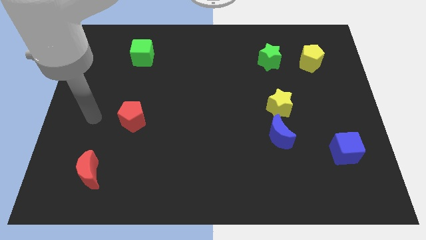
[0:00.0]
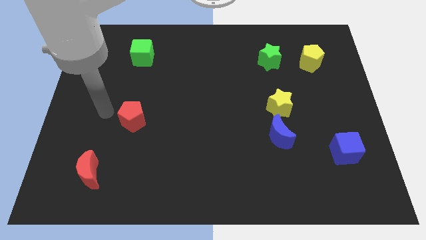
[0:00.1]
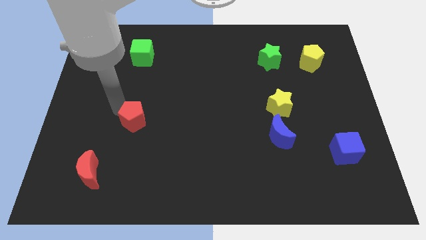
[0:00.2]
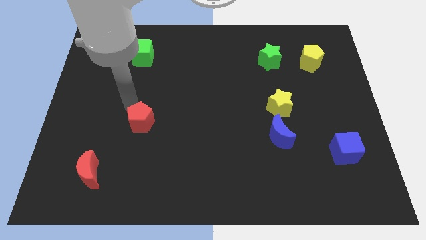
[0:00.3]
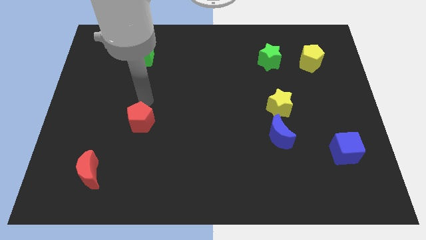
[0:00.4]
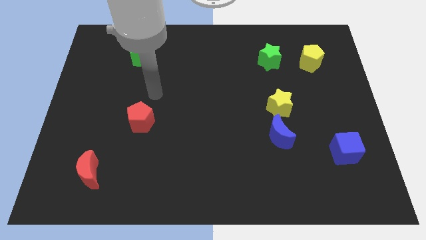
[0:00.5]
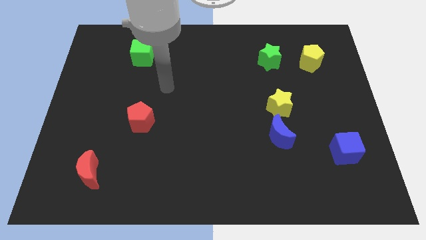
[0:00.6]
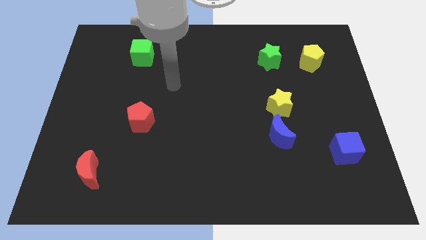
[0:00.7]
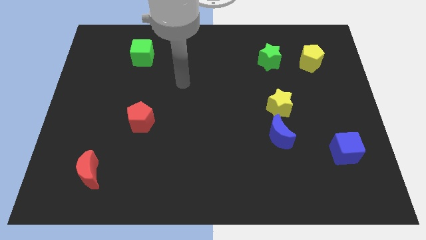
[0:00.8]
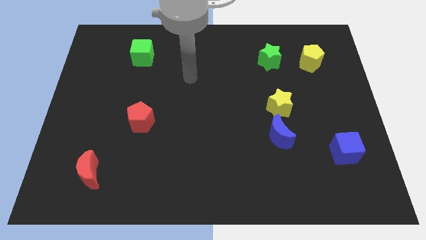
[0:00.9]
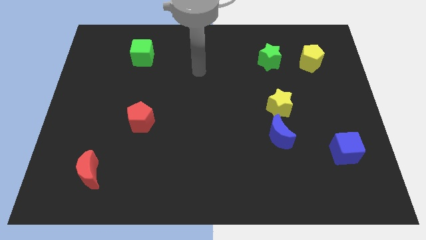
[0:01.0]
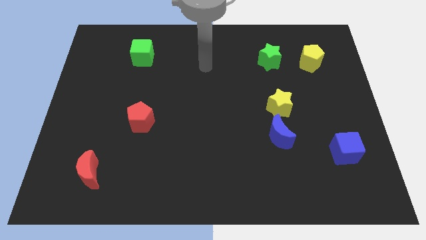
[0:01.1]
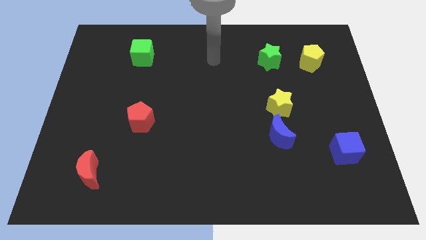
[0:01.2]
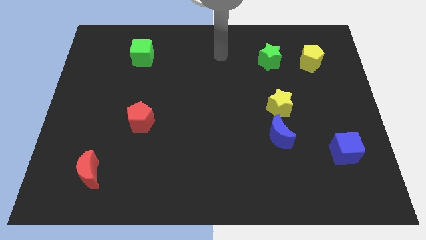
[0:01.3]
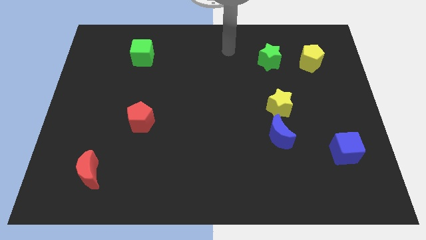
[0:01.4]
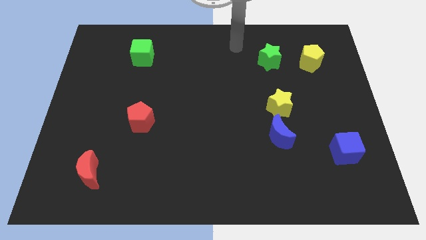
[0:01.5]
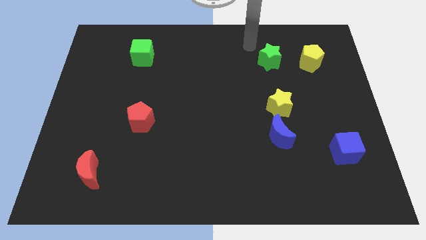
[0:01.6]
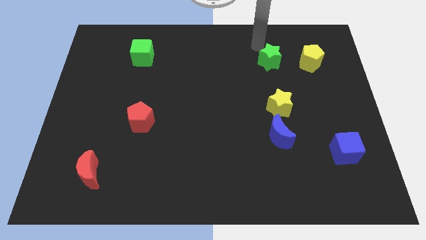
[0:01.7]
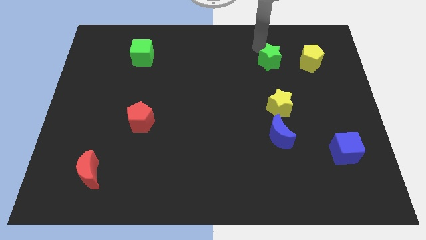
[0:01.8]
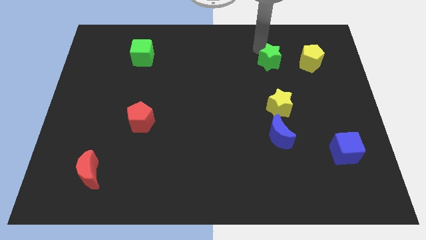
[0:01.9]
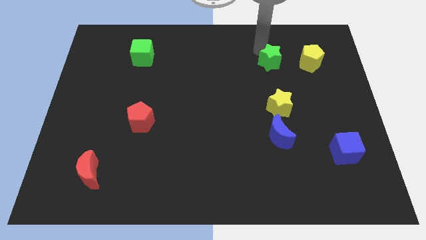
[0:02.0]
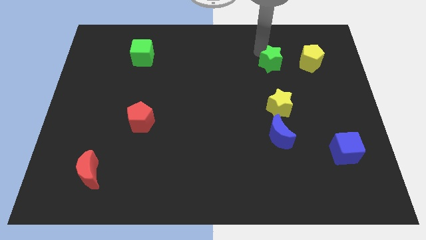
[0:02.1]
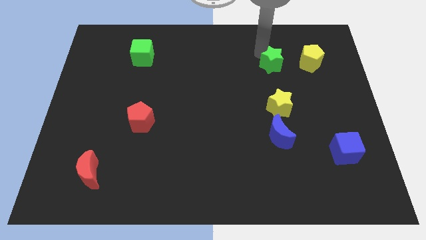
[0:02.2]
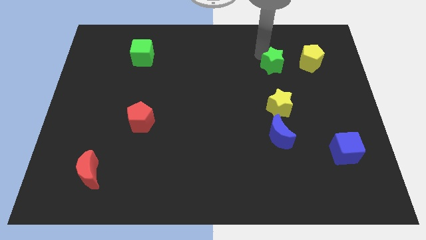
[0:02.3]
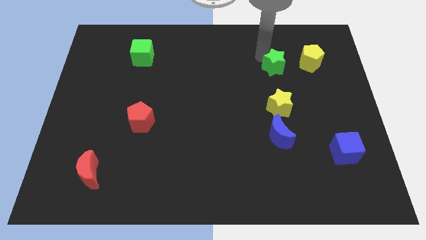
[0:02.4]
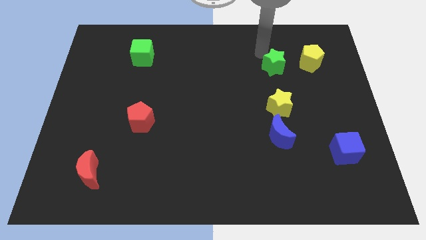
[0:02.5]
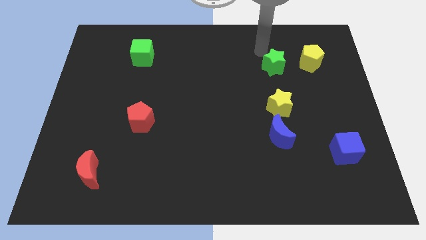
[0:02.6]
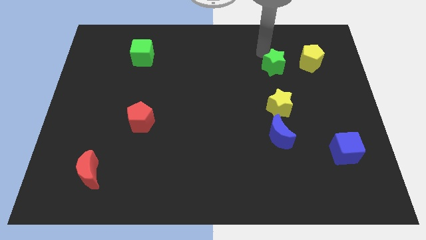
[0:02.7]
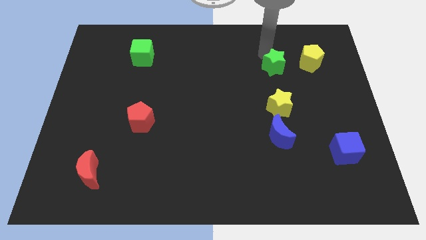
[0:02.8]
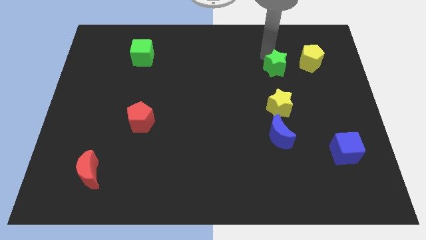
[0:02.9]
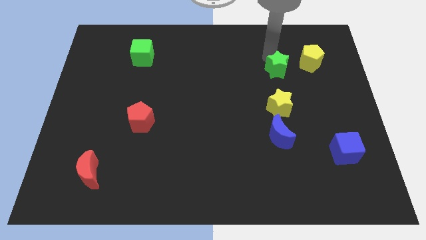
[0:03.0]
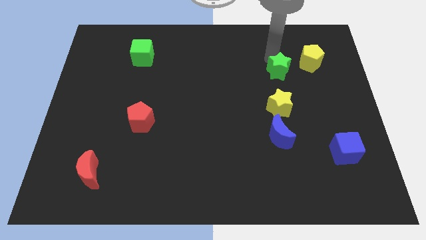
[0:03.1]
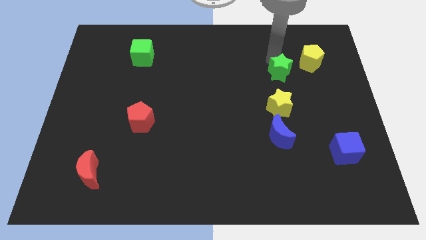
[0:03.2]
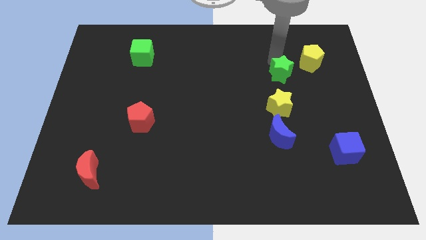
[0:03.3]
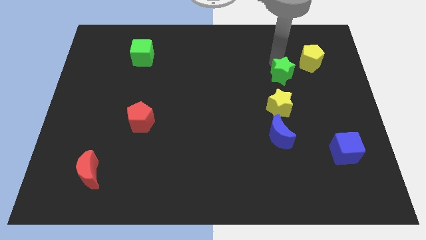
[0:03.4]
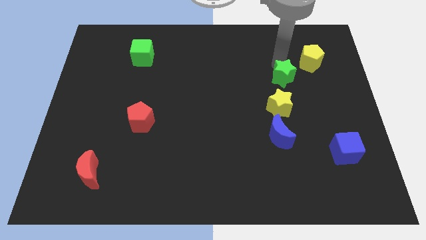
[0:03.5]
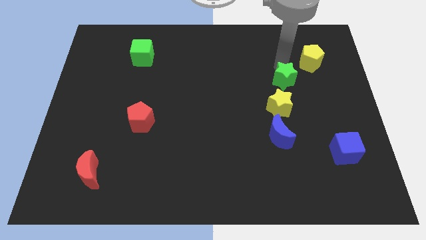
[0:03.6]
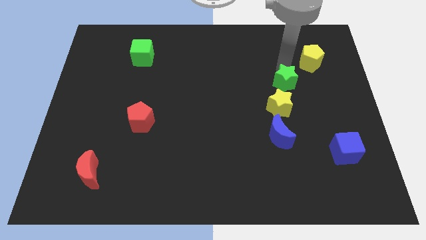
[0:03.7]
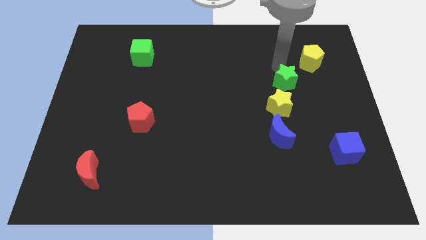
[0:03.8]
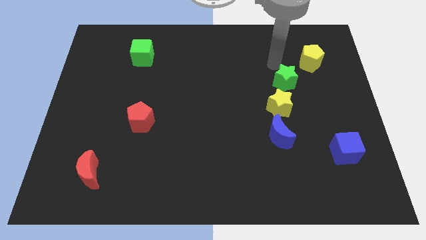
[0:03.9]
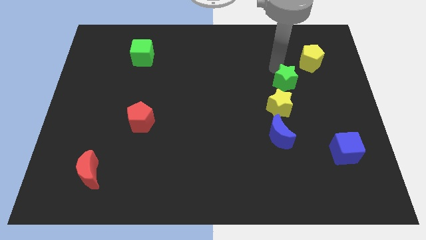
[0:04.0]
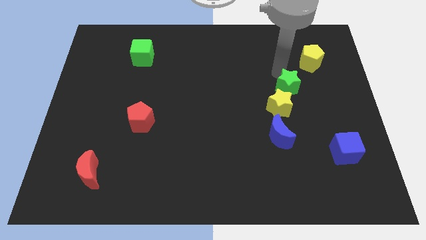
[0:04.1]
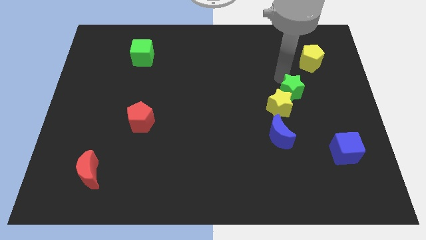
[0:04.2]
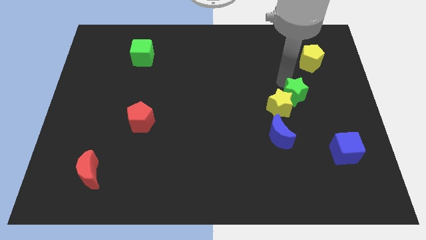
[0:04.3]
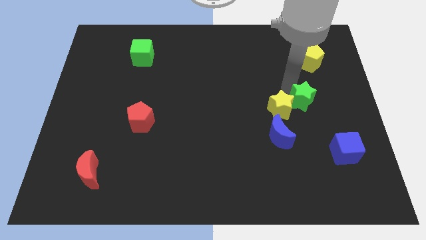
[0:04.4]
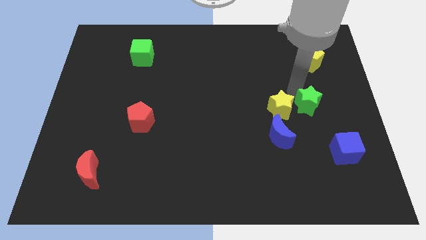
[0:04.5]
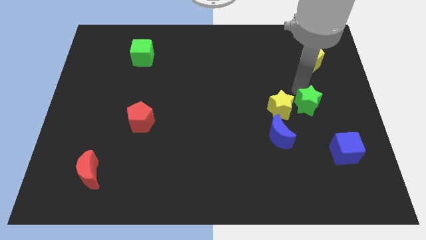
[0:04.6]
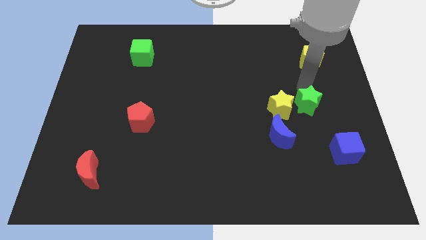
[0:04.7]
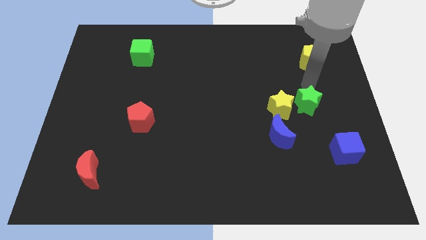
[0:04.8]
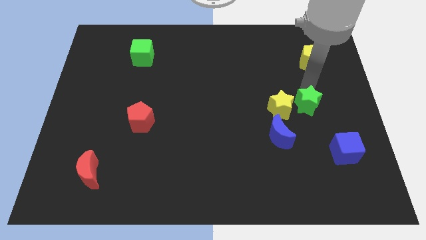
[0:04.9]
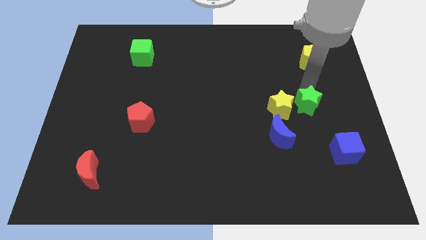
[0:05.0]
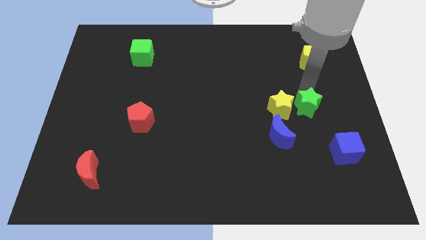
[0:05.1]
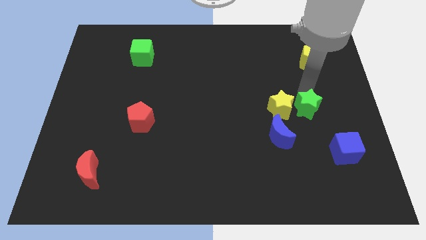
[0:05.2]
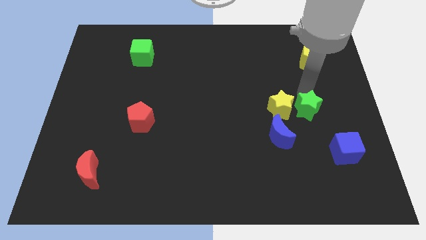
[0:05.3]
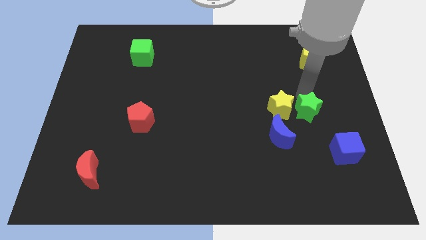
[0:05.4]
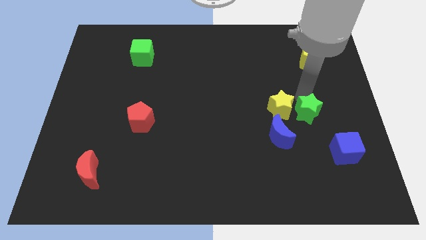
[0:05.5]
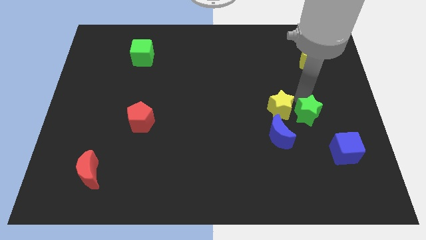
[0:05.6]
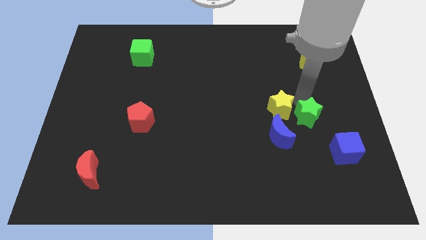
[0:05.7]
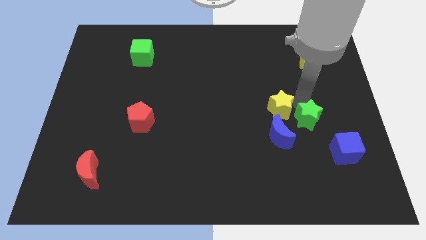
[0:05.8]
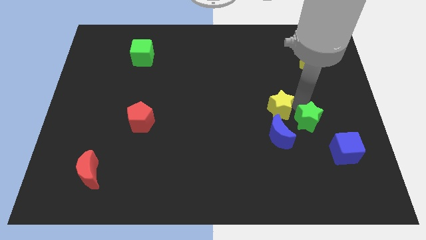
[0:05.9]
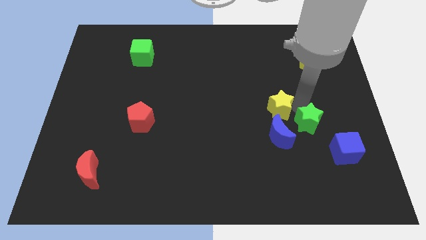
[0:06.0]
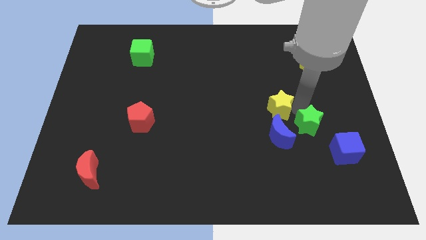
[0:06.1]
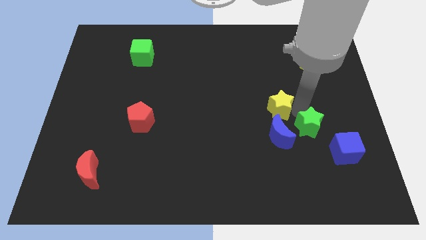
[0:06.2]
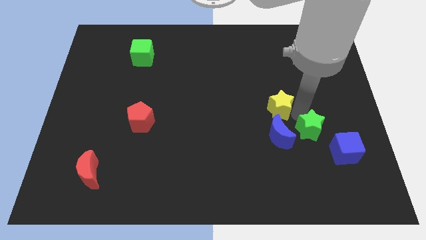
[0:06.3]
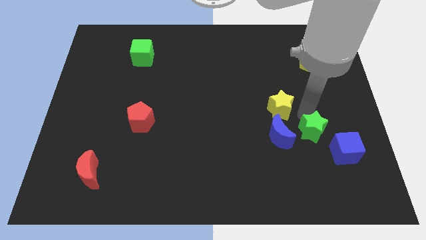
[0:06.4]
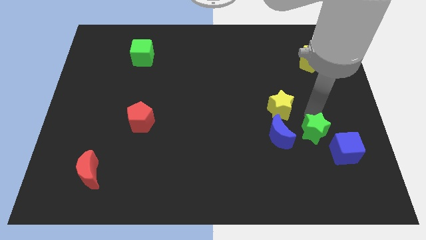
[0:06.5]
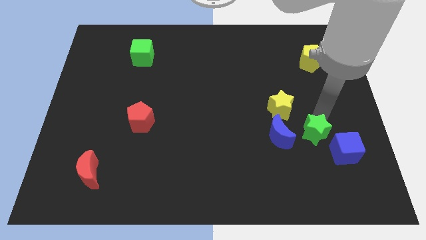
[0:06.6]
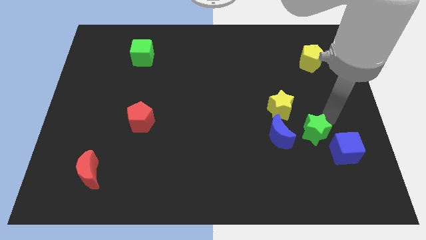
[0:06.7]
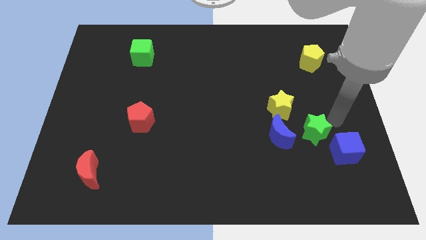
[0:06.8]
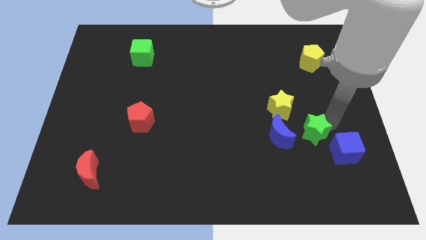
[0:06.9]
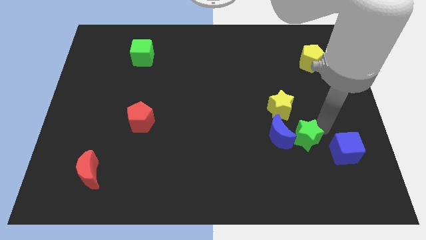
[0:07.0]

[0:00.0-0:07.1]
put the green star to the bottom side of the yellow star

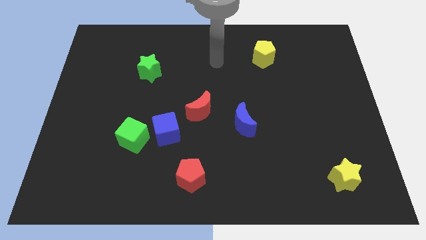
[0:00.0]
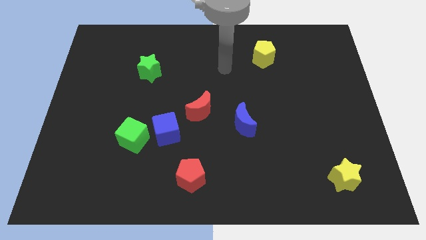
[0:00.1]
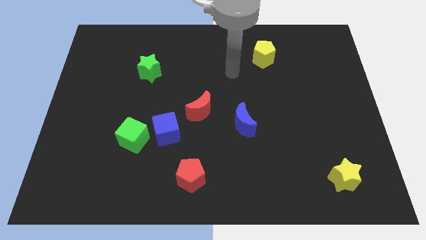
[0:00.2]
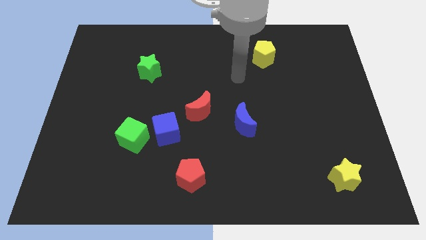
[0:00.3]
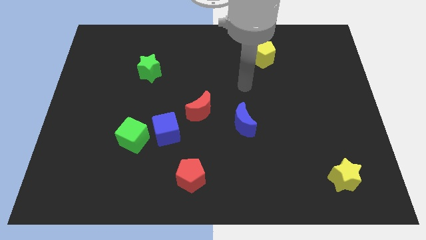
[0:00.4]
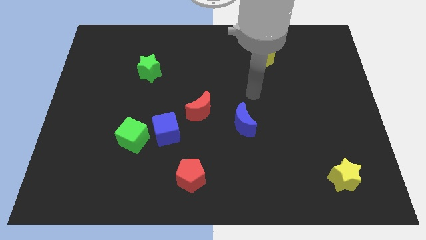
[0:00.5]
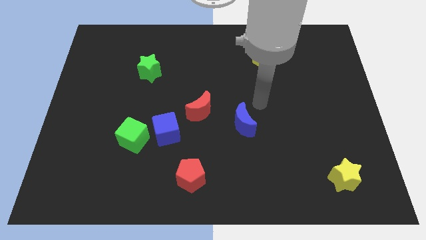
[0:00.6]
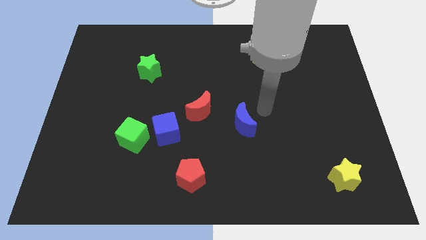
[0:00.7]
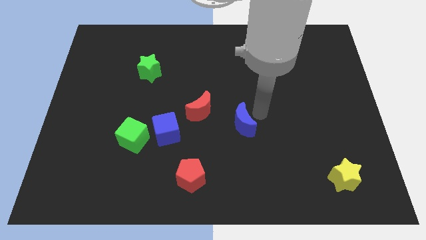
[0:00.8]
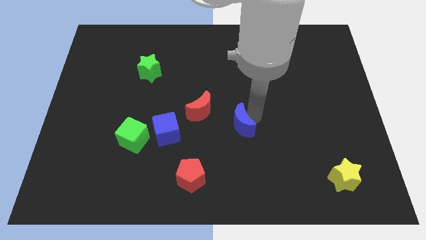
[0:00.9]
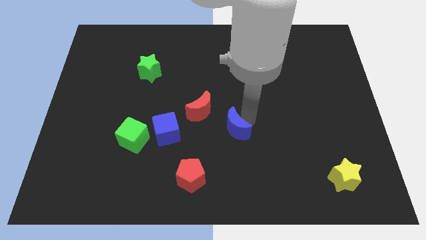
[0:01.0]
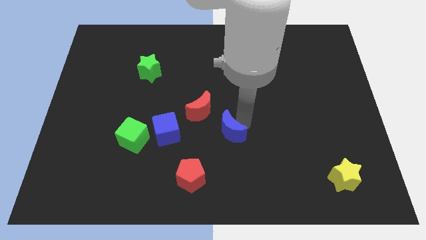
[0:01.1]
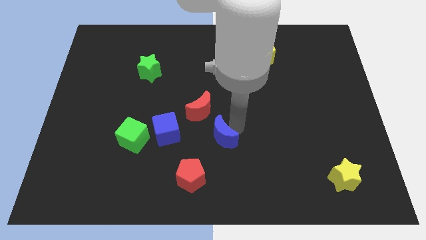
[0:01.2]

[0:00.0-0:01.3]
push the blue moon to the bottom side of the red moon
